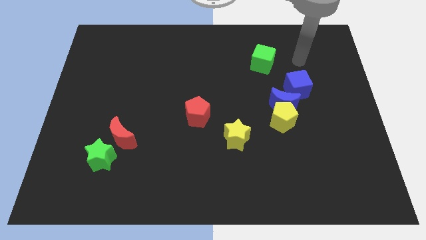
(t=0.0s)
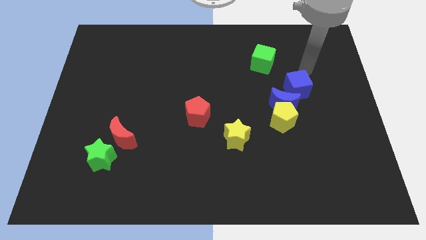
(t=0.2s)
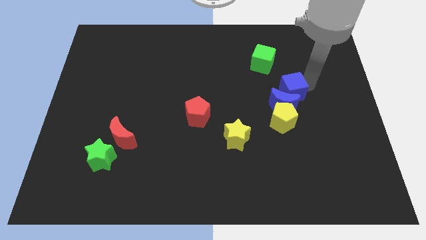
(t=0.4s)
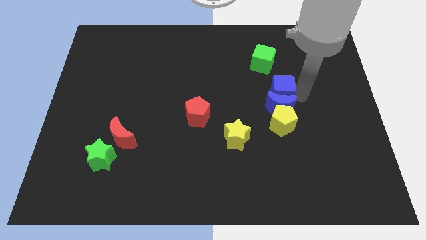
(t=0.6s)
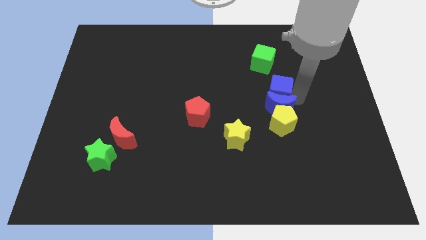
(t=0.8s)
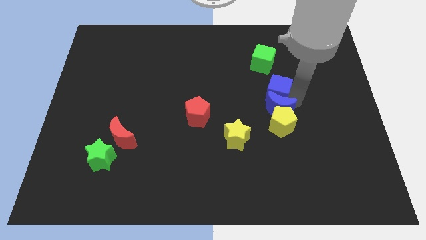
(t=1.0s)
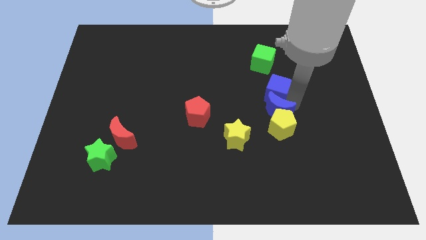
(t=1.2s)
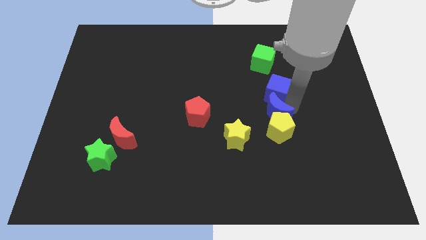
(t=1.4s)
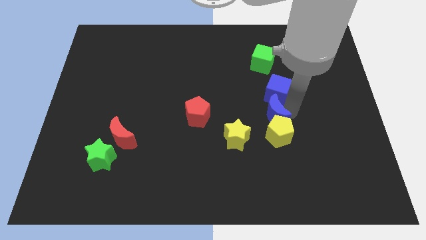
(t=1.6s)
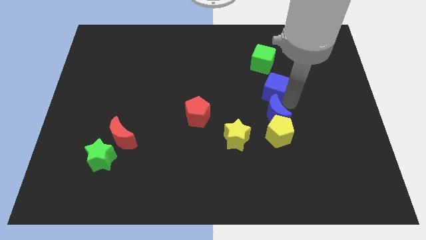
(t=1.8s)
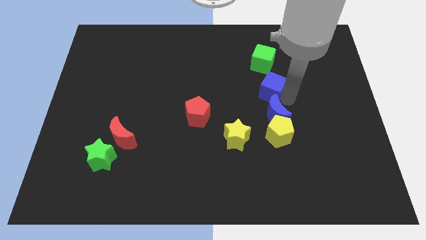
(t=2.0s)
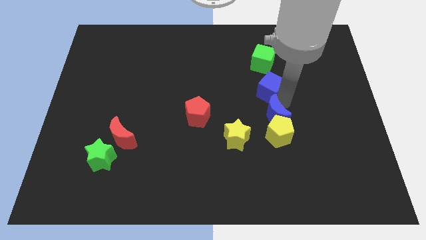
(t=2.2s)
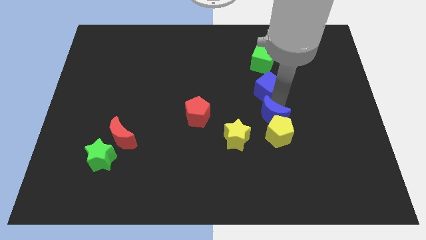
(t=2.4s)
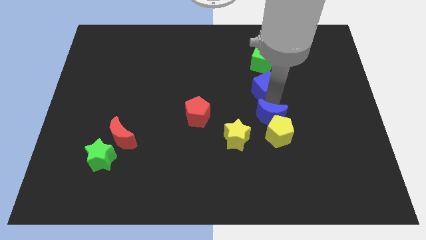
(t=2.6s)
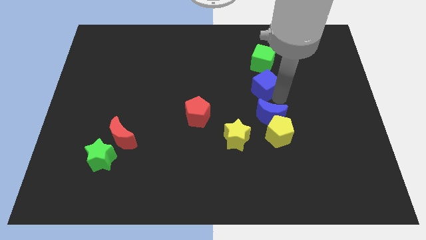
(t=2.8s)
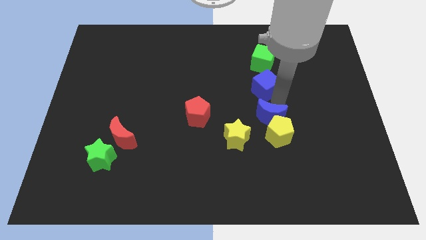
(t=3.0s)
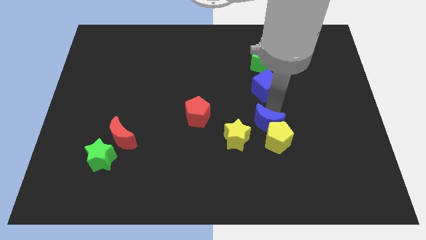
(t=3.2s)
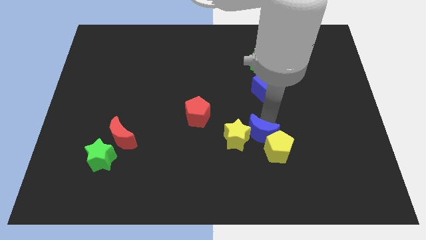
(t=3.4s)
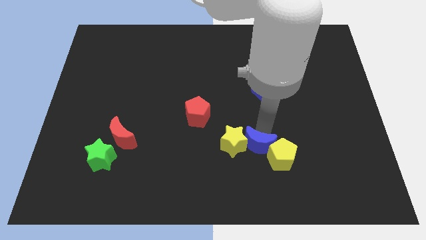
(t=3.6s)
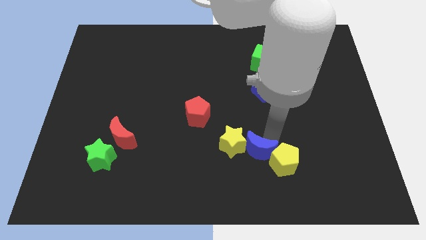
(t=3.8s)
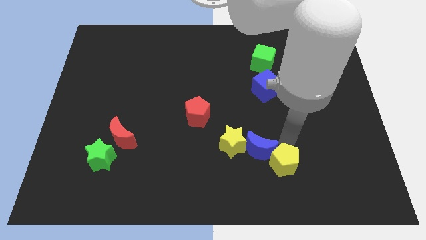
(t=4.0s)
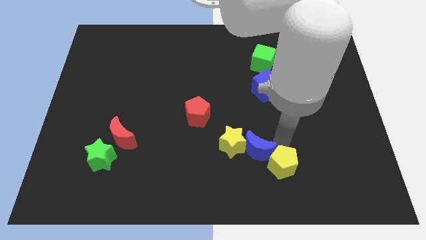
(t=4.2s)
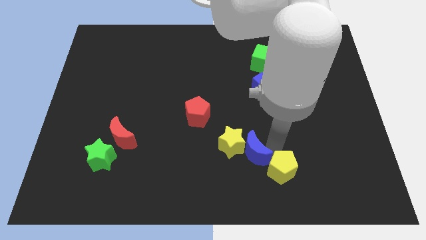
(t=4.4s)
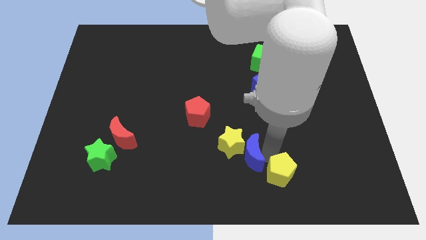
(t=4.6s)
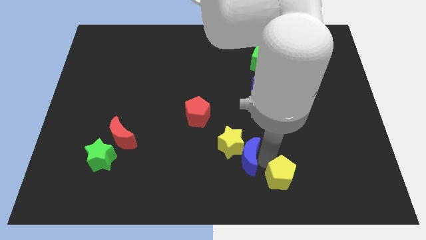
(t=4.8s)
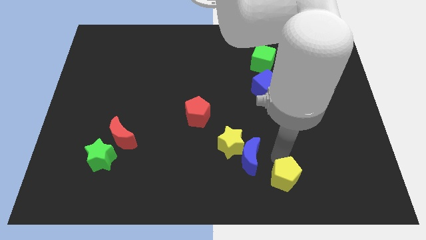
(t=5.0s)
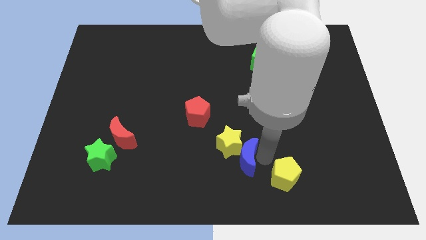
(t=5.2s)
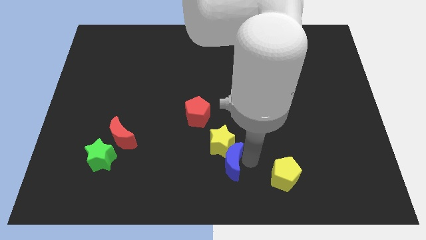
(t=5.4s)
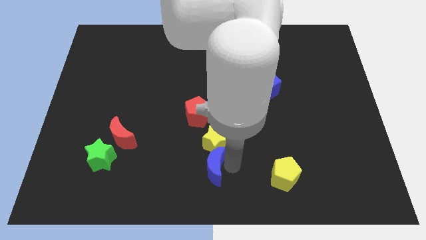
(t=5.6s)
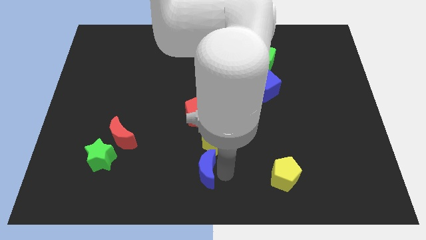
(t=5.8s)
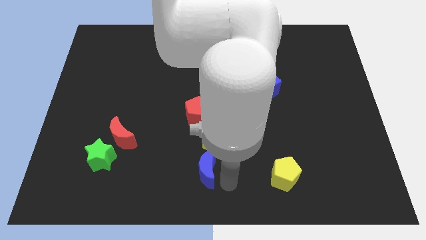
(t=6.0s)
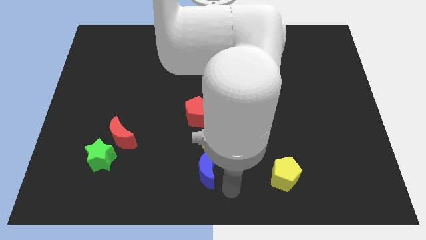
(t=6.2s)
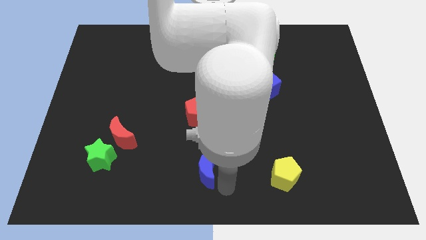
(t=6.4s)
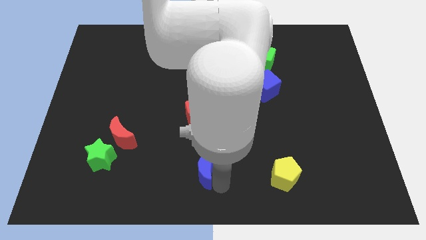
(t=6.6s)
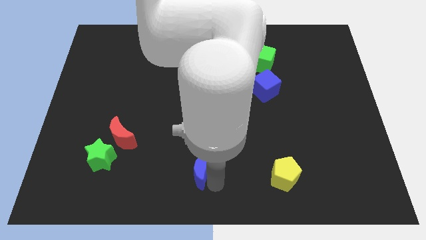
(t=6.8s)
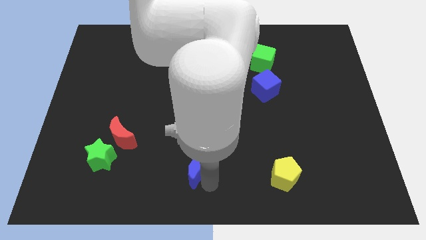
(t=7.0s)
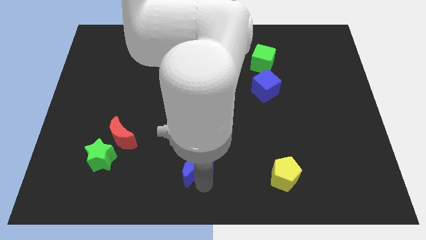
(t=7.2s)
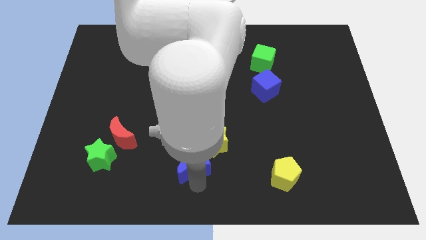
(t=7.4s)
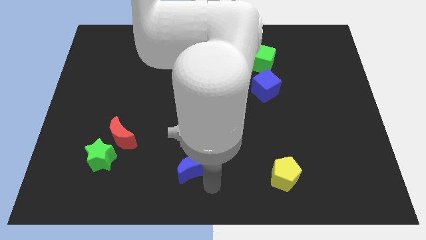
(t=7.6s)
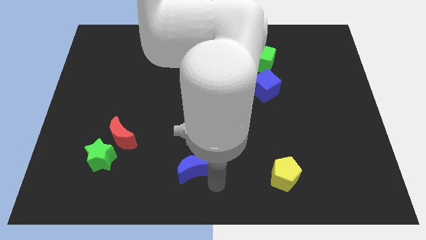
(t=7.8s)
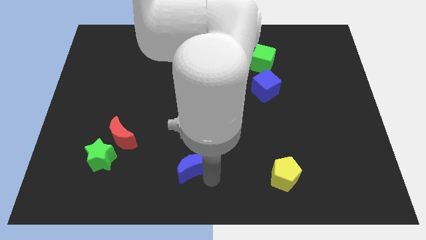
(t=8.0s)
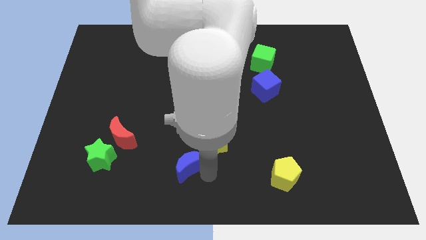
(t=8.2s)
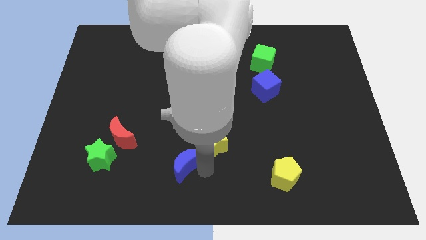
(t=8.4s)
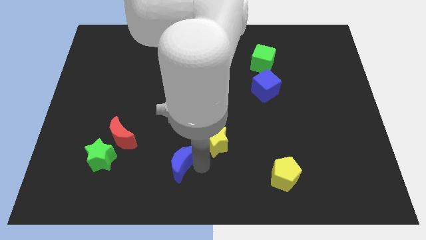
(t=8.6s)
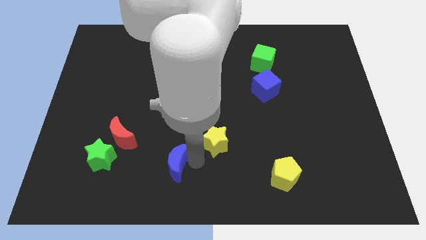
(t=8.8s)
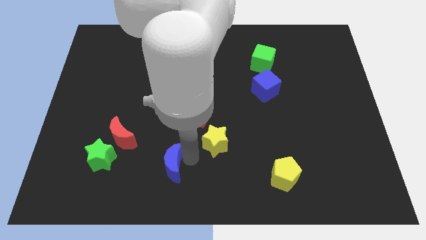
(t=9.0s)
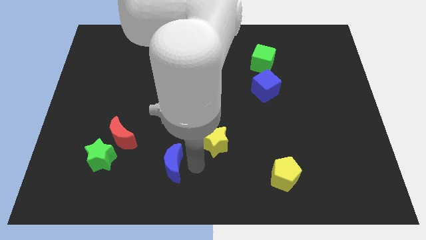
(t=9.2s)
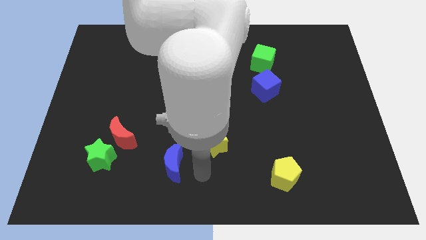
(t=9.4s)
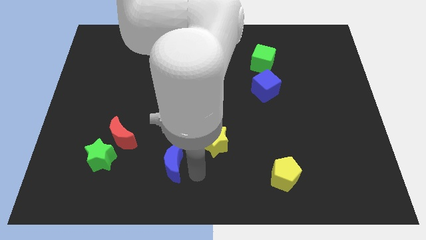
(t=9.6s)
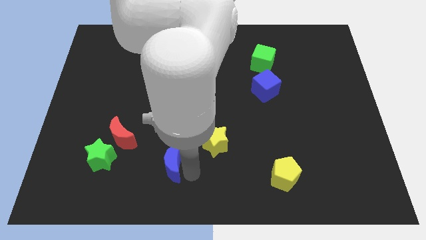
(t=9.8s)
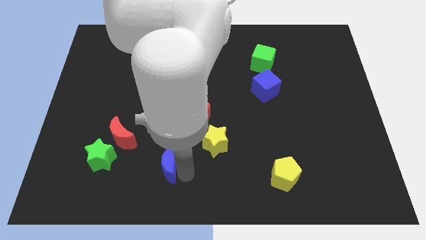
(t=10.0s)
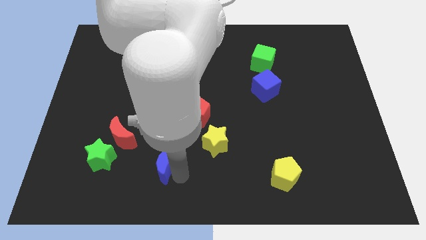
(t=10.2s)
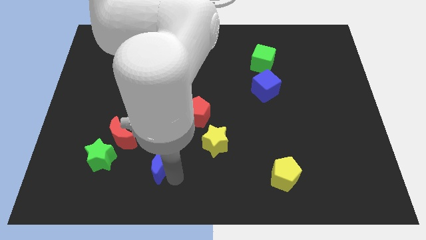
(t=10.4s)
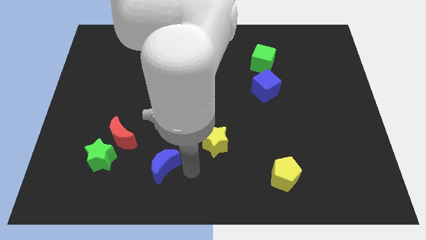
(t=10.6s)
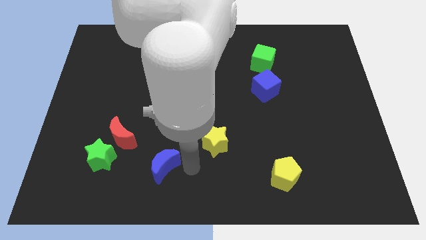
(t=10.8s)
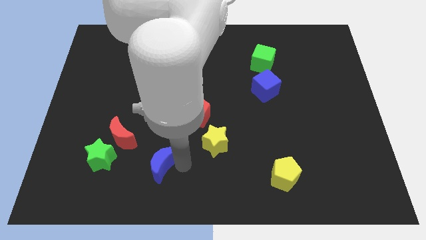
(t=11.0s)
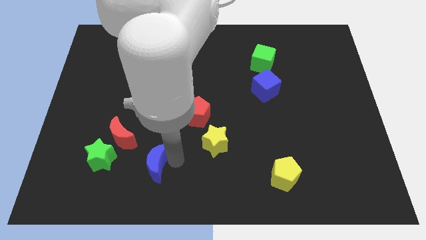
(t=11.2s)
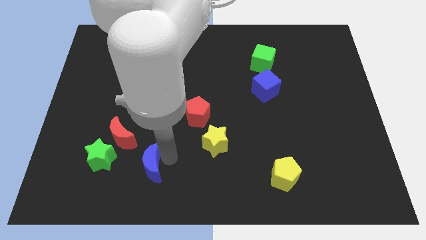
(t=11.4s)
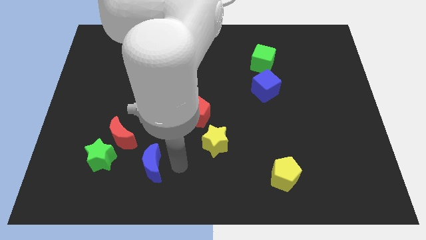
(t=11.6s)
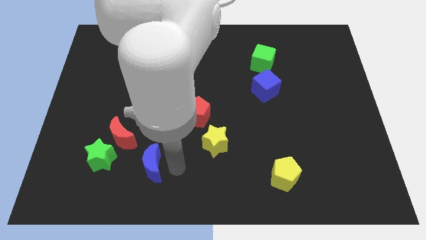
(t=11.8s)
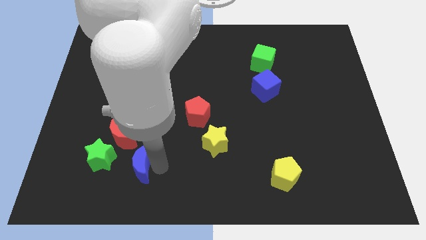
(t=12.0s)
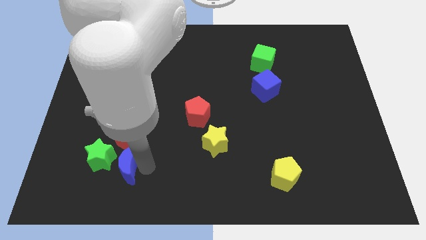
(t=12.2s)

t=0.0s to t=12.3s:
slide the blue moon to the green star

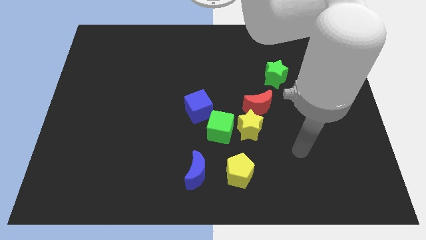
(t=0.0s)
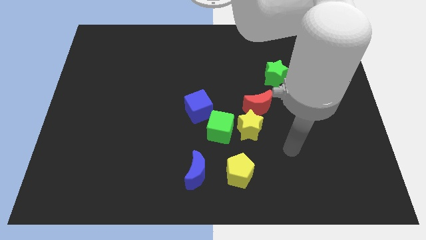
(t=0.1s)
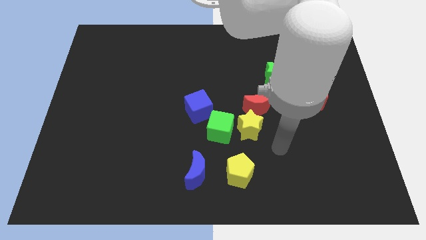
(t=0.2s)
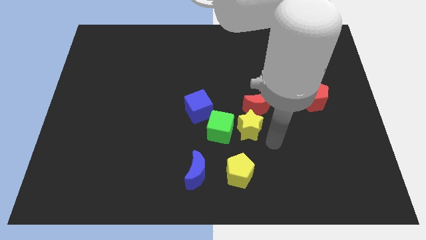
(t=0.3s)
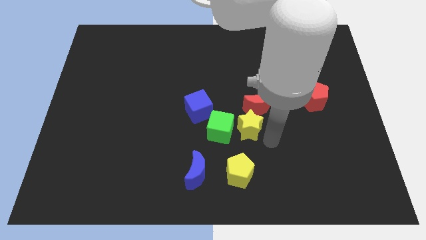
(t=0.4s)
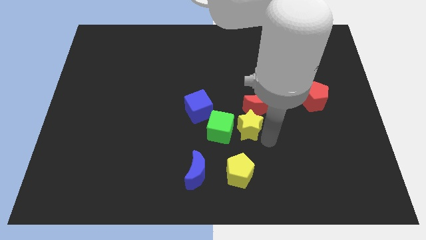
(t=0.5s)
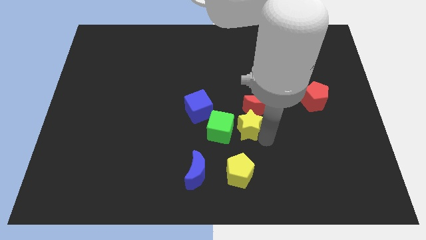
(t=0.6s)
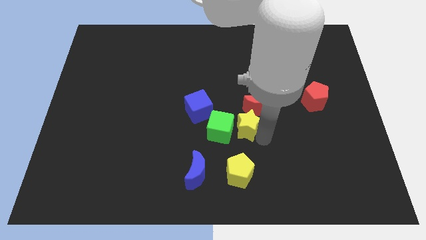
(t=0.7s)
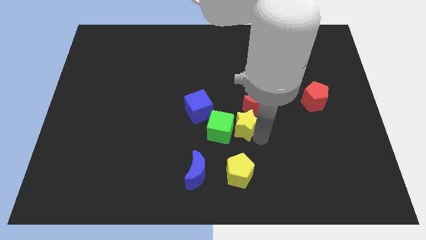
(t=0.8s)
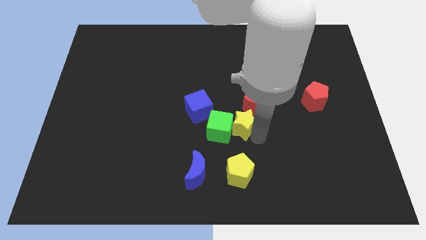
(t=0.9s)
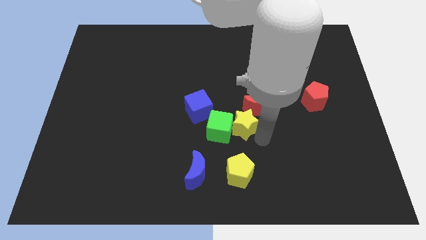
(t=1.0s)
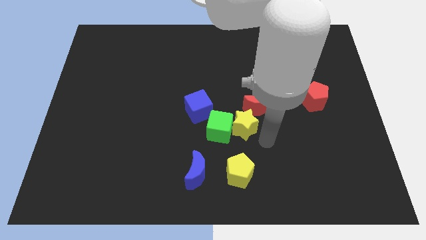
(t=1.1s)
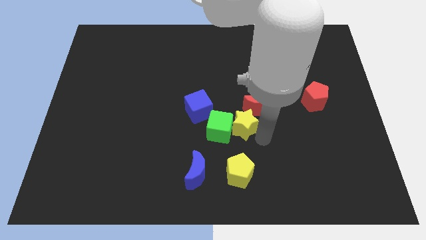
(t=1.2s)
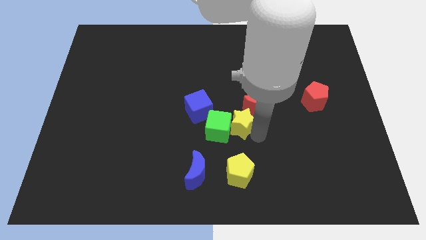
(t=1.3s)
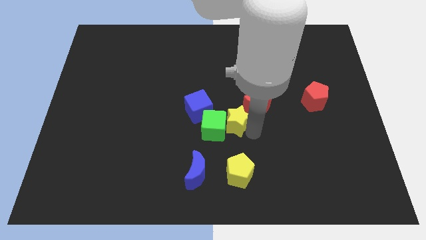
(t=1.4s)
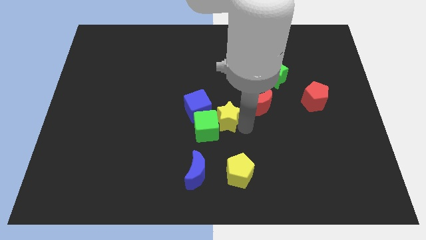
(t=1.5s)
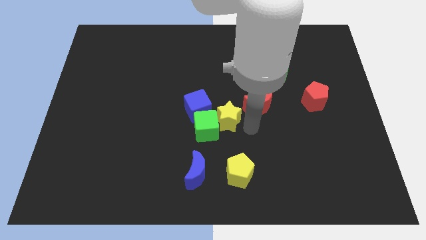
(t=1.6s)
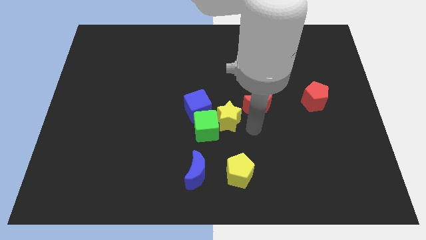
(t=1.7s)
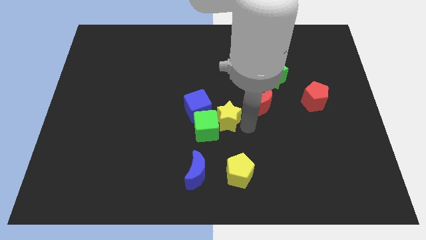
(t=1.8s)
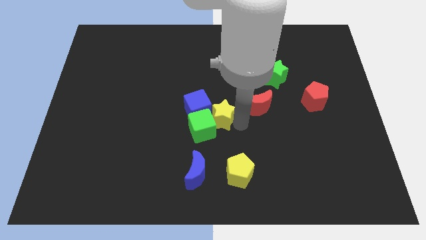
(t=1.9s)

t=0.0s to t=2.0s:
slide the yellow star next to the blue cube
